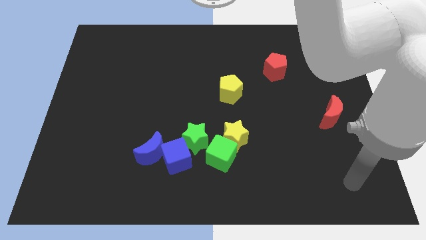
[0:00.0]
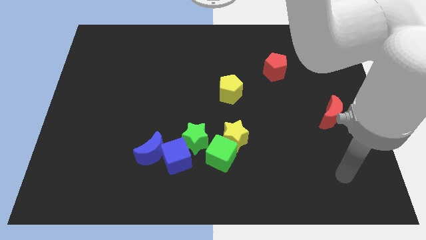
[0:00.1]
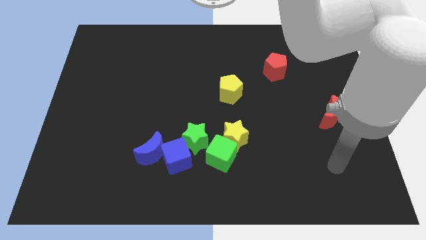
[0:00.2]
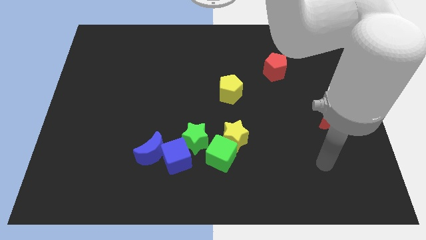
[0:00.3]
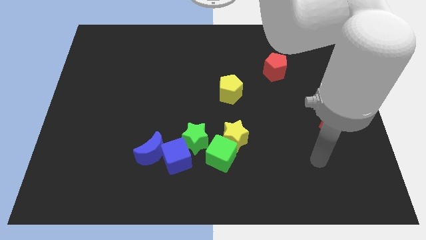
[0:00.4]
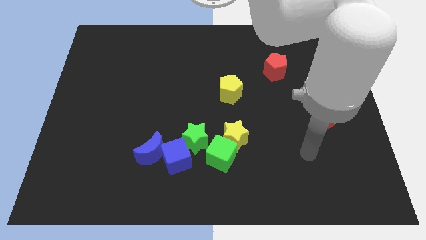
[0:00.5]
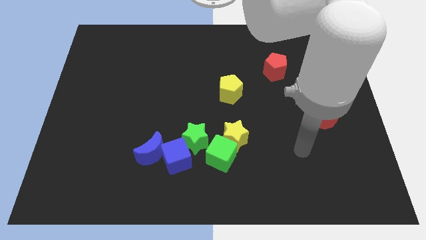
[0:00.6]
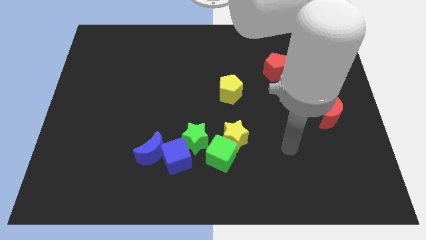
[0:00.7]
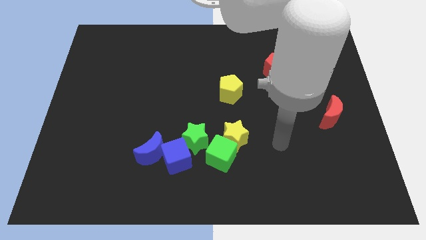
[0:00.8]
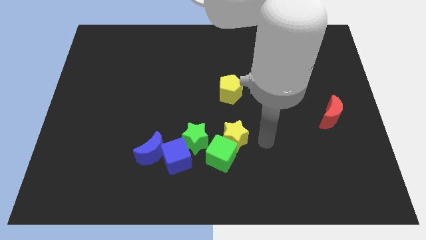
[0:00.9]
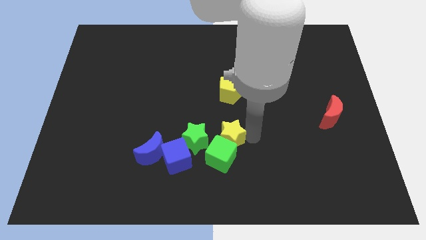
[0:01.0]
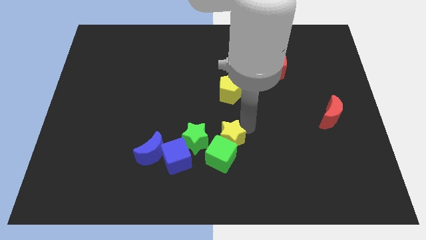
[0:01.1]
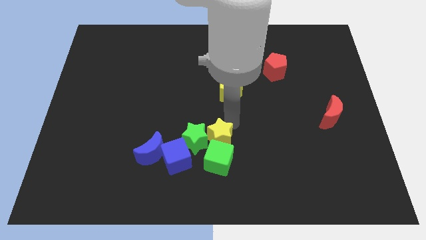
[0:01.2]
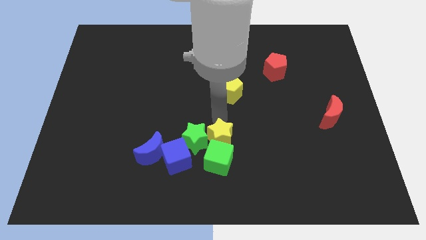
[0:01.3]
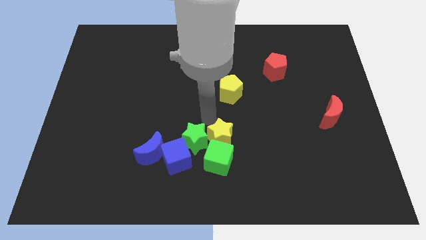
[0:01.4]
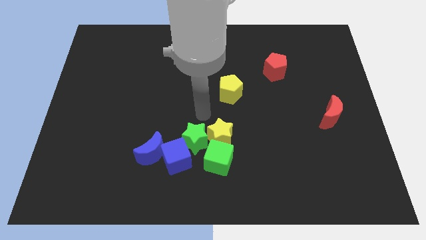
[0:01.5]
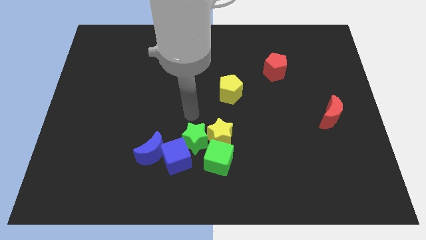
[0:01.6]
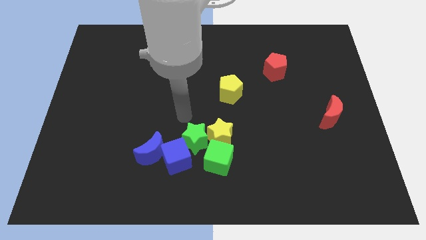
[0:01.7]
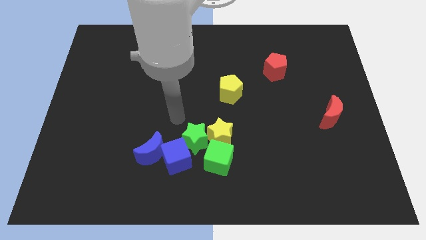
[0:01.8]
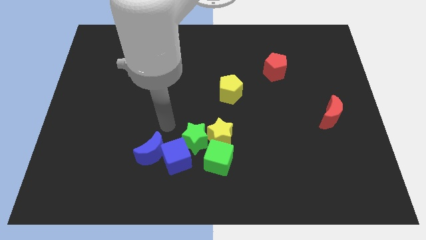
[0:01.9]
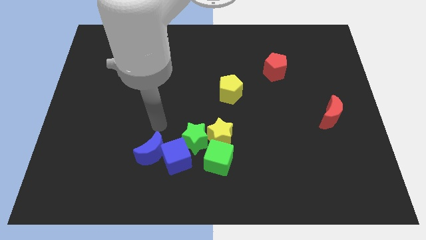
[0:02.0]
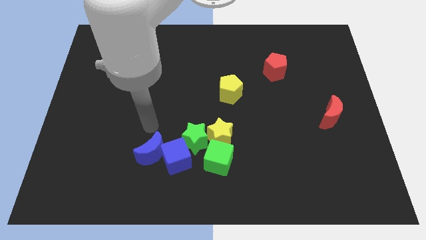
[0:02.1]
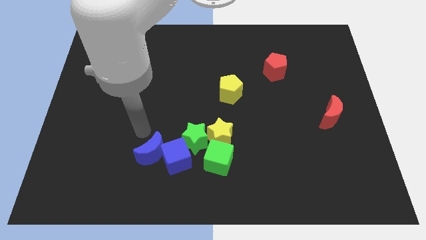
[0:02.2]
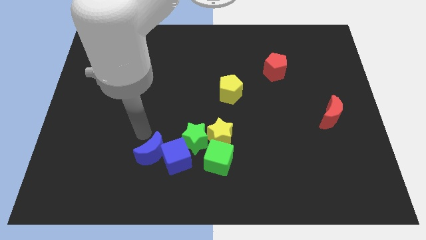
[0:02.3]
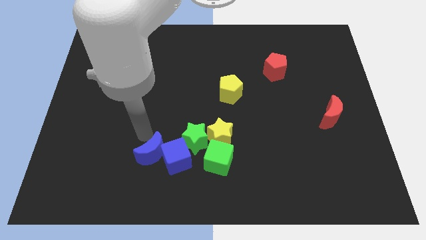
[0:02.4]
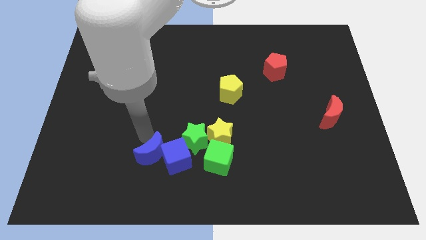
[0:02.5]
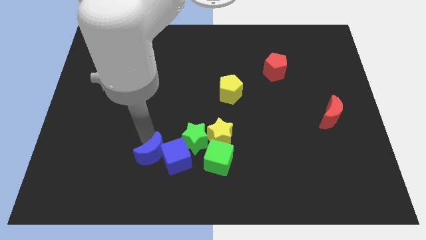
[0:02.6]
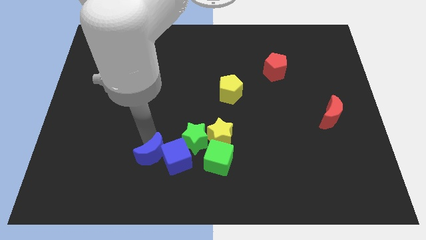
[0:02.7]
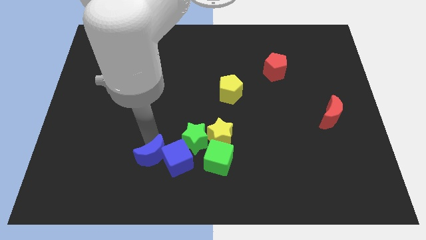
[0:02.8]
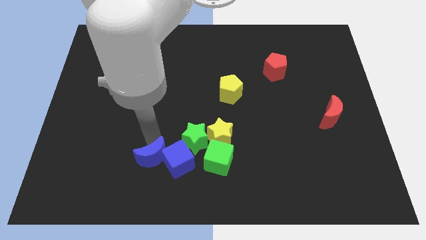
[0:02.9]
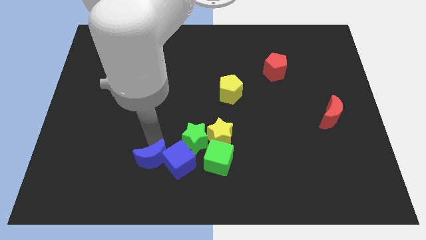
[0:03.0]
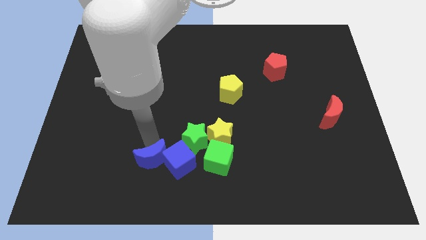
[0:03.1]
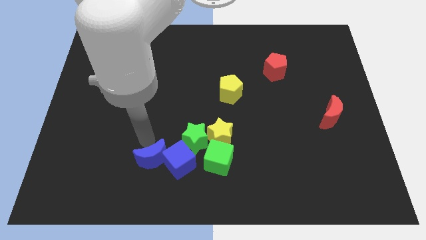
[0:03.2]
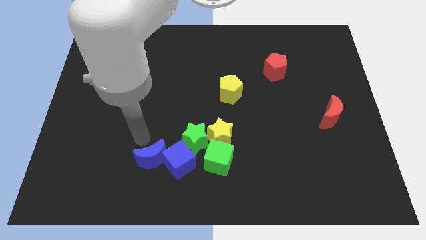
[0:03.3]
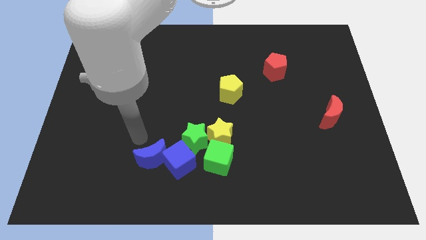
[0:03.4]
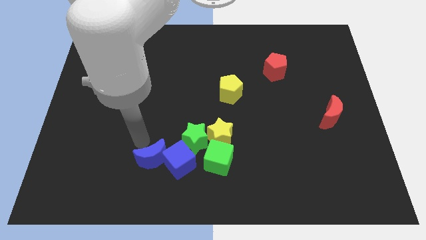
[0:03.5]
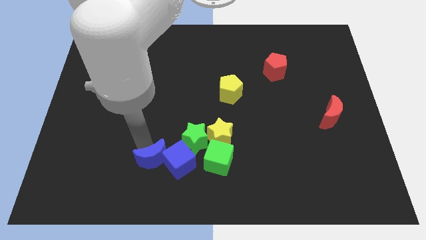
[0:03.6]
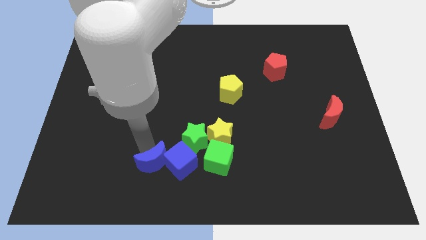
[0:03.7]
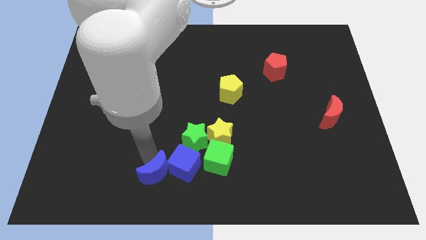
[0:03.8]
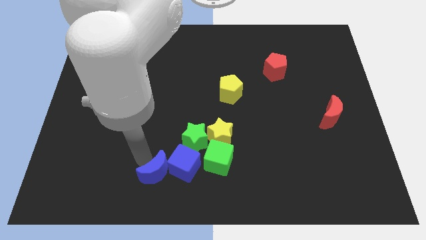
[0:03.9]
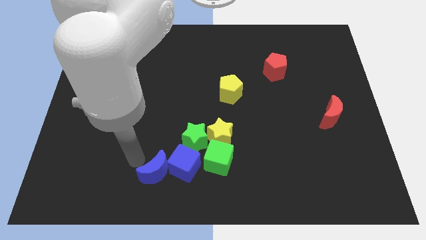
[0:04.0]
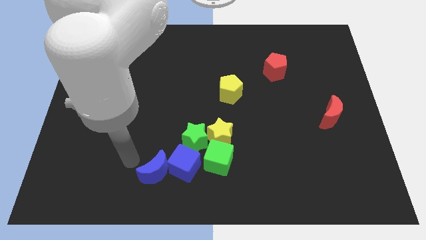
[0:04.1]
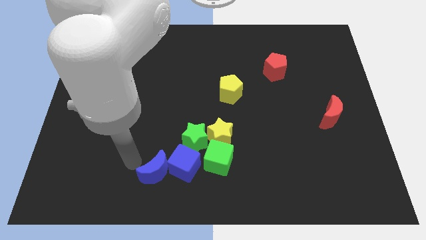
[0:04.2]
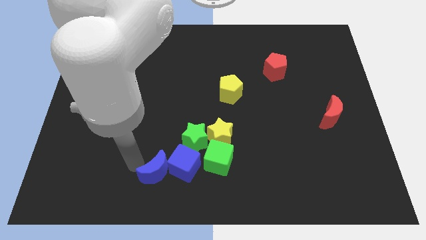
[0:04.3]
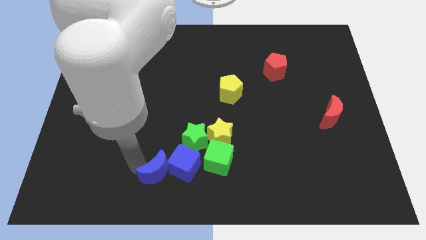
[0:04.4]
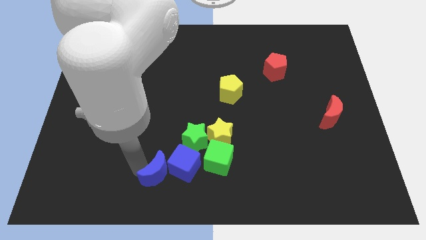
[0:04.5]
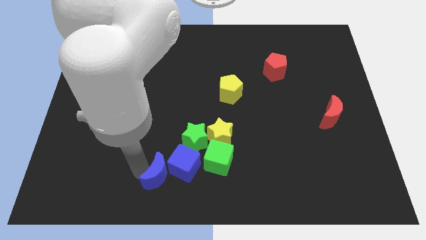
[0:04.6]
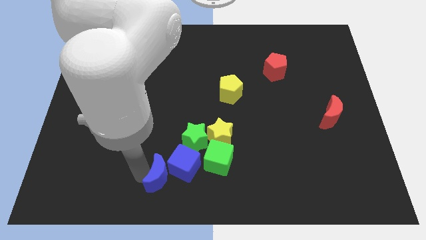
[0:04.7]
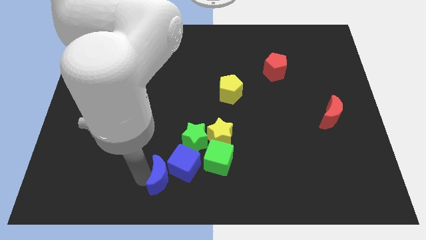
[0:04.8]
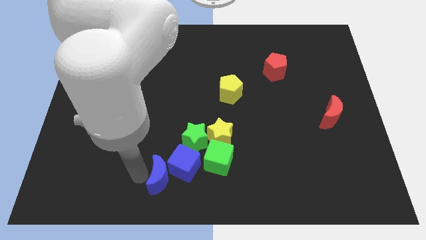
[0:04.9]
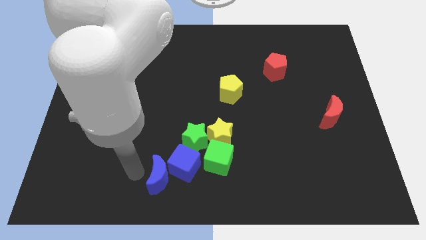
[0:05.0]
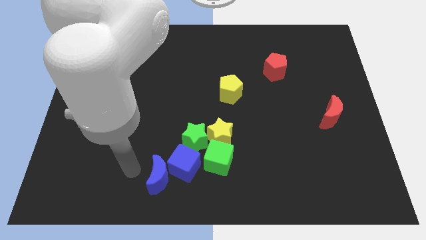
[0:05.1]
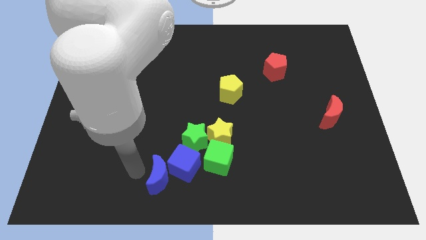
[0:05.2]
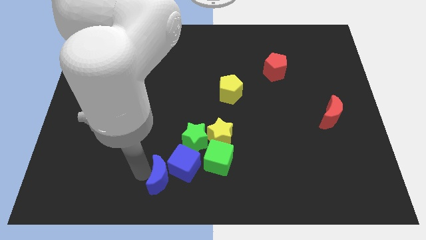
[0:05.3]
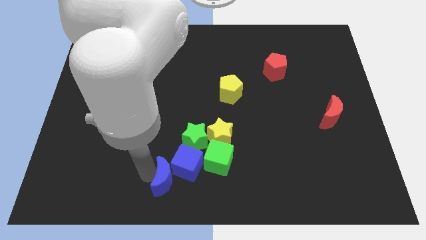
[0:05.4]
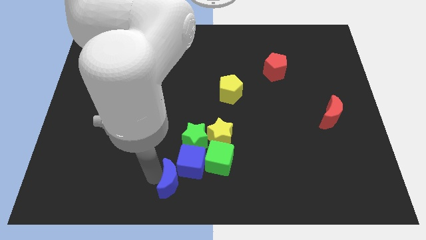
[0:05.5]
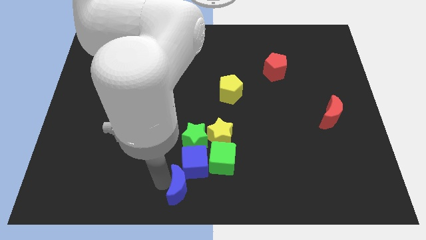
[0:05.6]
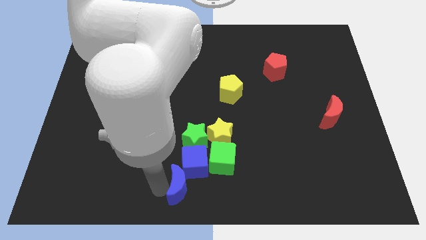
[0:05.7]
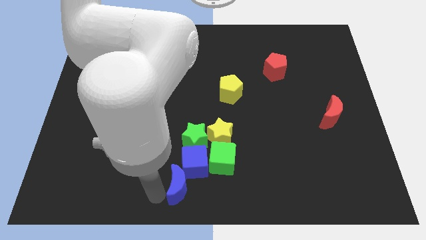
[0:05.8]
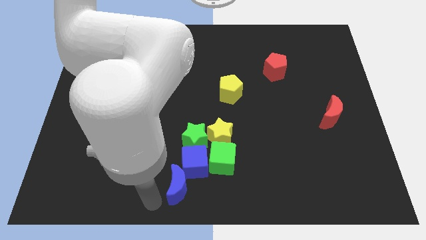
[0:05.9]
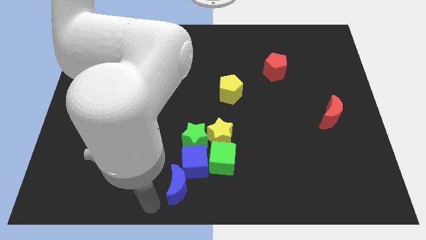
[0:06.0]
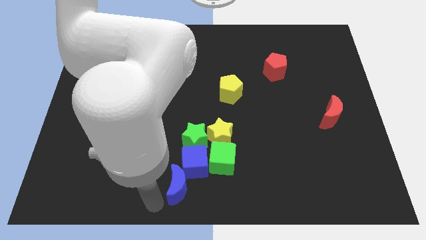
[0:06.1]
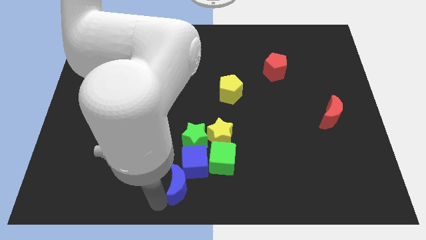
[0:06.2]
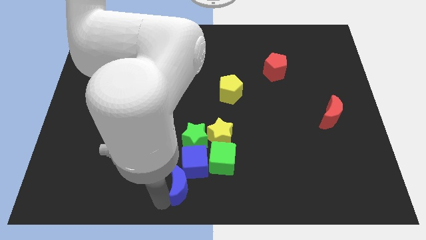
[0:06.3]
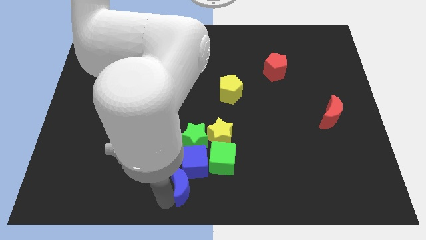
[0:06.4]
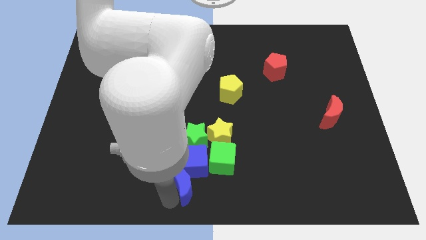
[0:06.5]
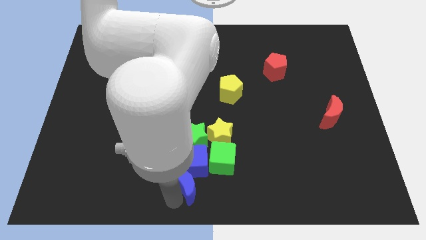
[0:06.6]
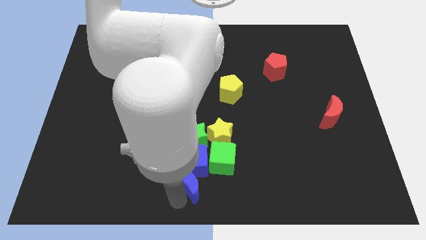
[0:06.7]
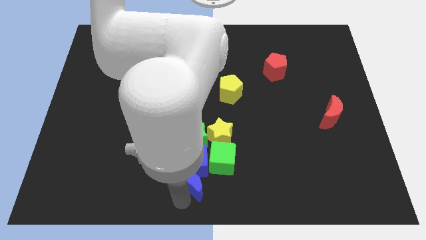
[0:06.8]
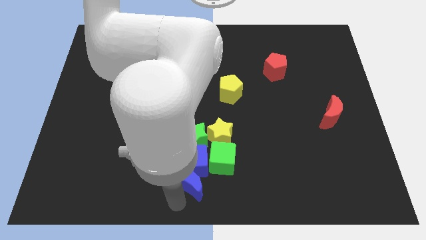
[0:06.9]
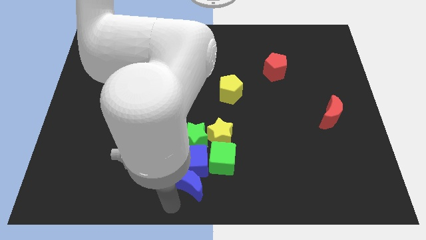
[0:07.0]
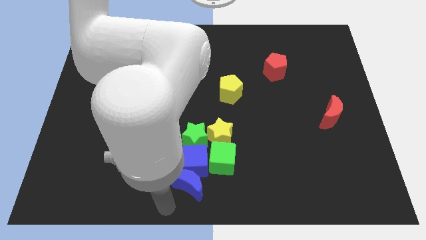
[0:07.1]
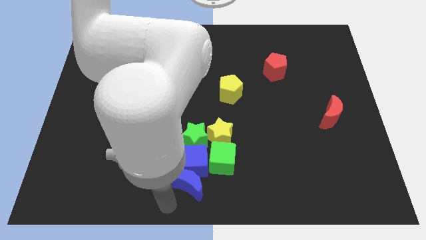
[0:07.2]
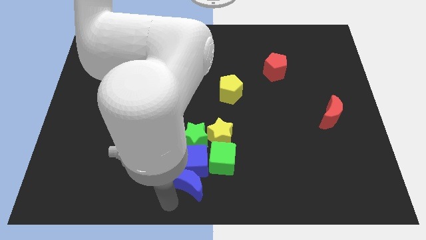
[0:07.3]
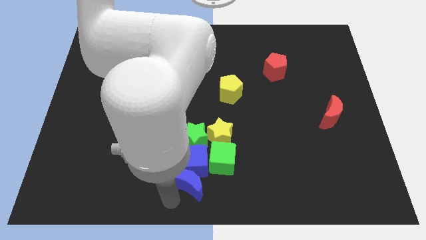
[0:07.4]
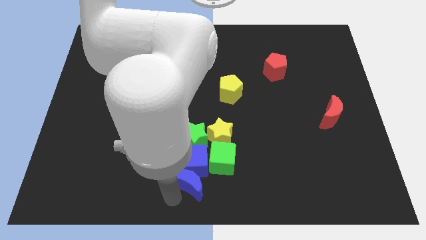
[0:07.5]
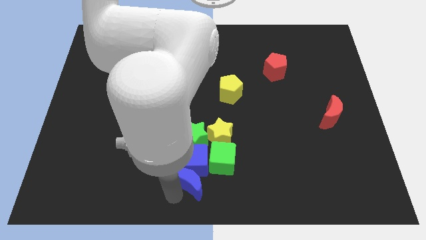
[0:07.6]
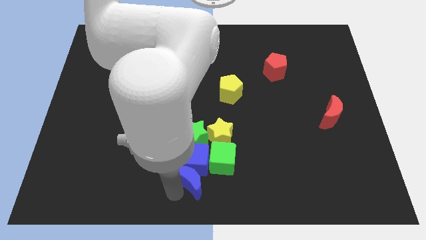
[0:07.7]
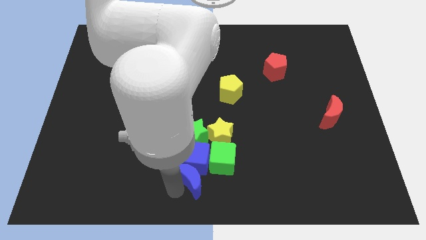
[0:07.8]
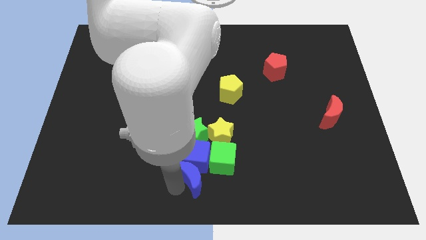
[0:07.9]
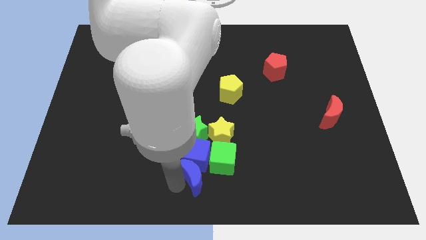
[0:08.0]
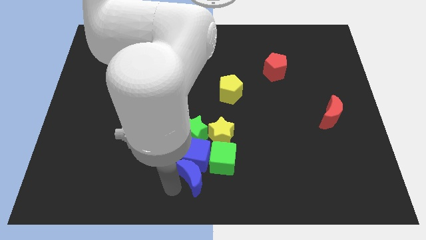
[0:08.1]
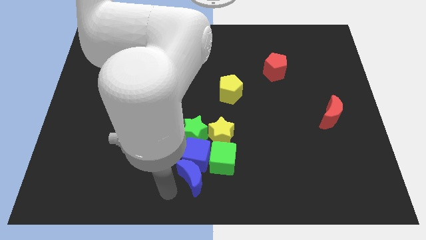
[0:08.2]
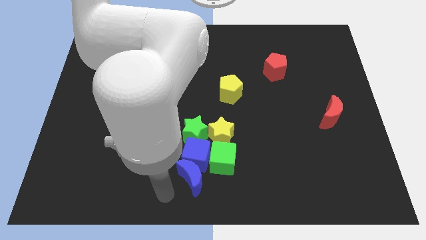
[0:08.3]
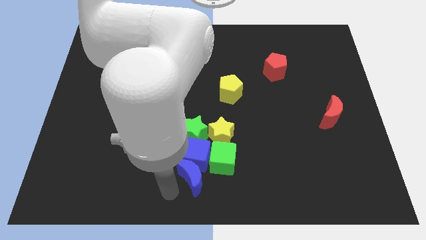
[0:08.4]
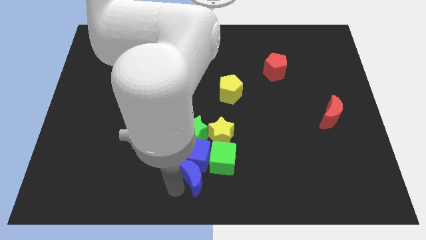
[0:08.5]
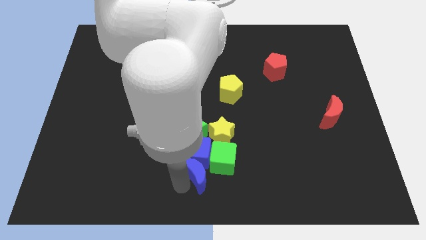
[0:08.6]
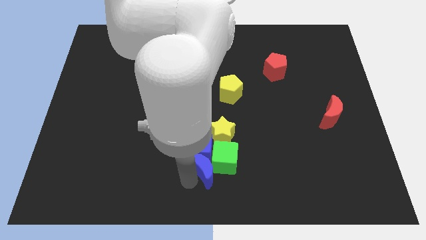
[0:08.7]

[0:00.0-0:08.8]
move the blue moon to the green cube
